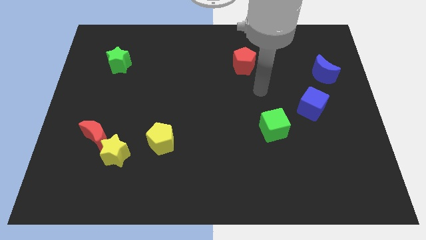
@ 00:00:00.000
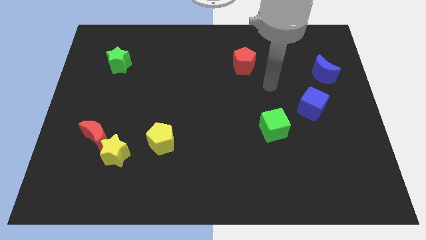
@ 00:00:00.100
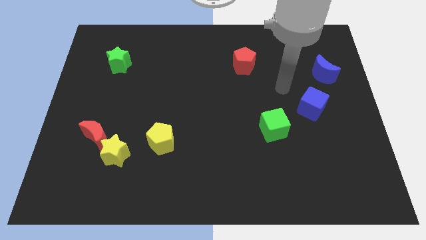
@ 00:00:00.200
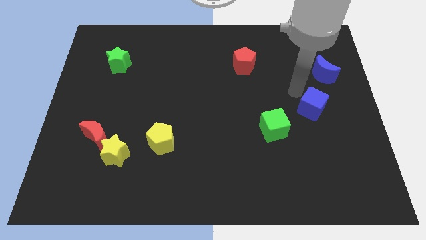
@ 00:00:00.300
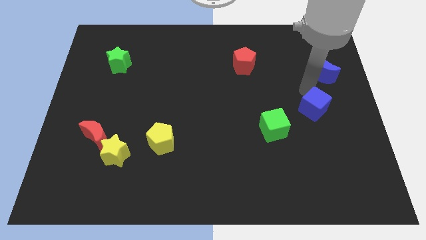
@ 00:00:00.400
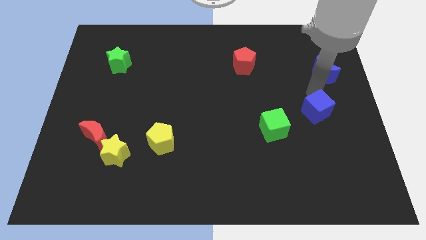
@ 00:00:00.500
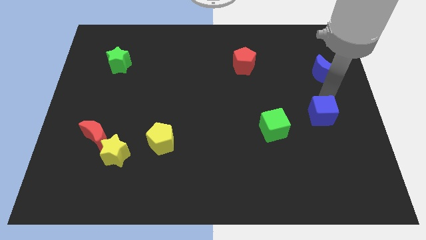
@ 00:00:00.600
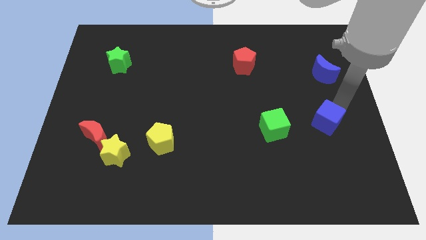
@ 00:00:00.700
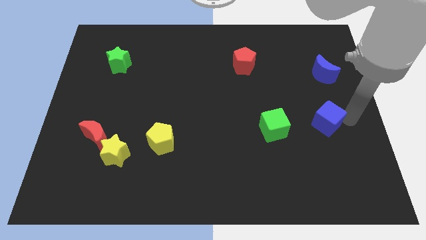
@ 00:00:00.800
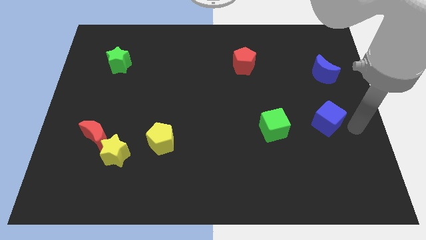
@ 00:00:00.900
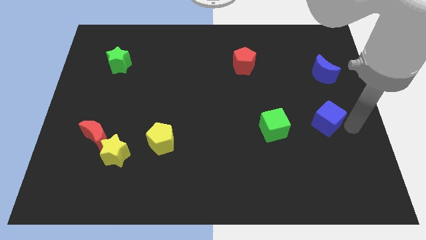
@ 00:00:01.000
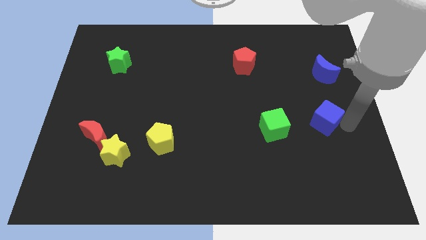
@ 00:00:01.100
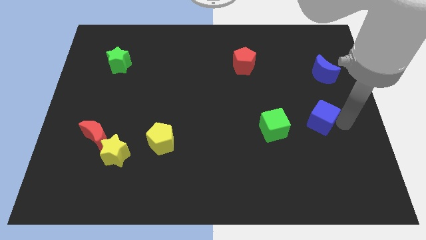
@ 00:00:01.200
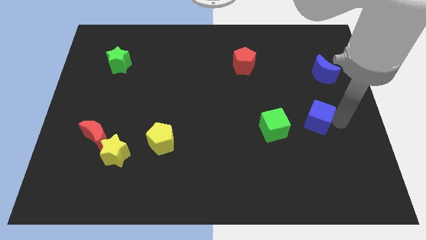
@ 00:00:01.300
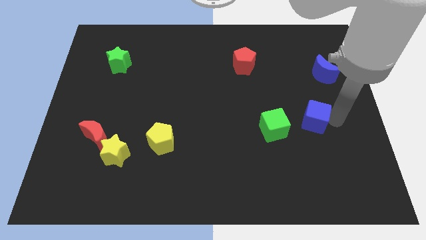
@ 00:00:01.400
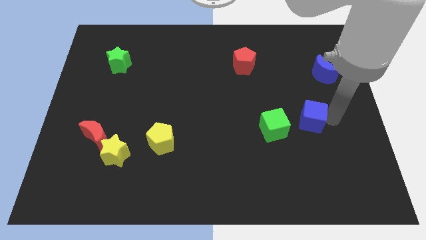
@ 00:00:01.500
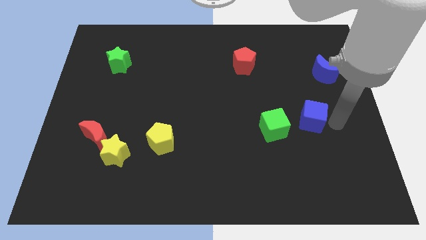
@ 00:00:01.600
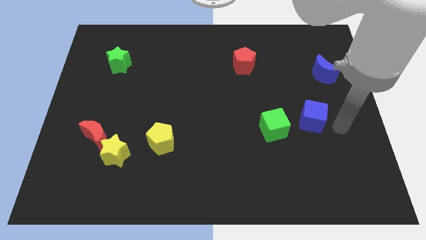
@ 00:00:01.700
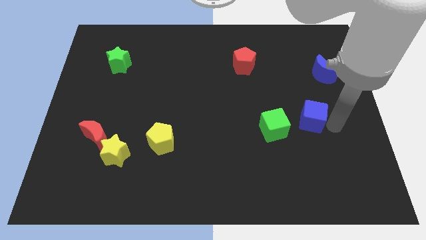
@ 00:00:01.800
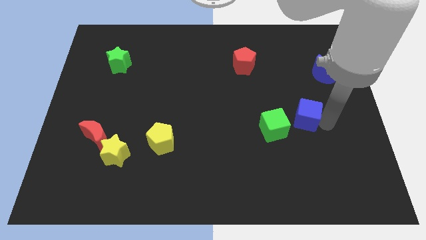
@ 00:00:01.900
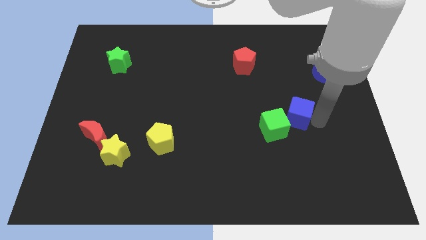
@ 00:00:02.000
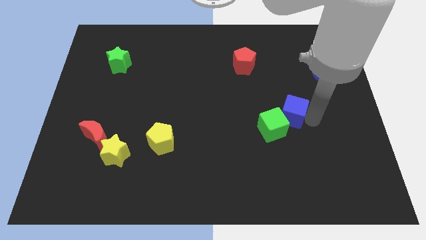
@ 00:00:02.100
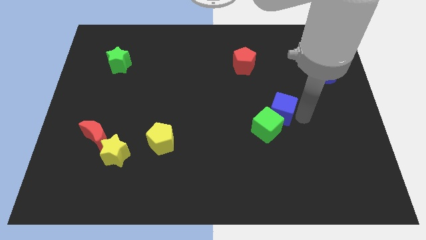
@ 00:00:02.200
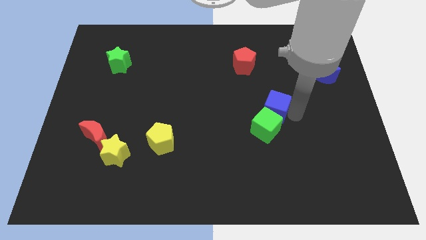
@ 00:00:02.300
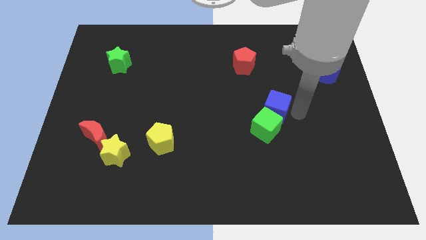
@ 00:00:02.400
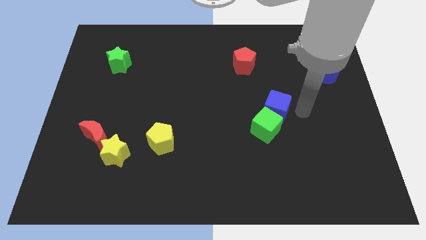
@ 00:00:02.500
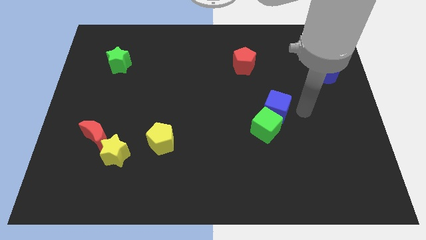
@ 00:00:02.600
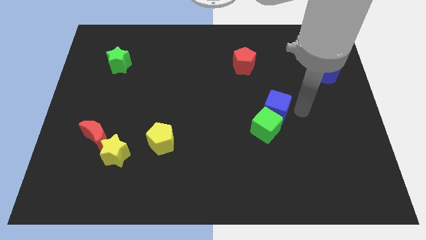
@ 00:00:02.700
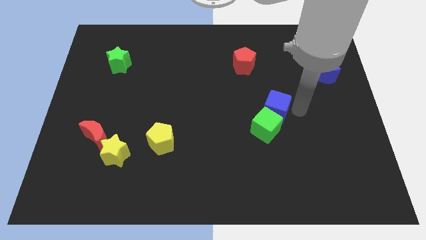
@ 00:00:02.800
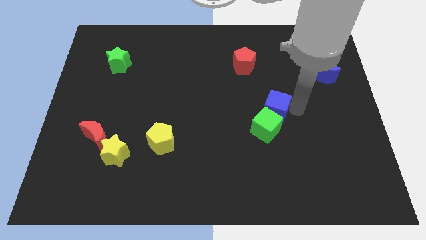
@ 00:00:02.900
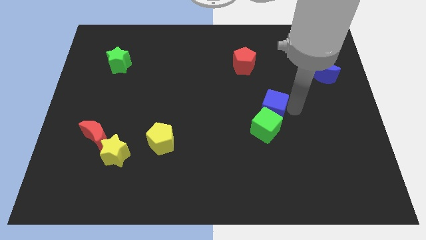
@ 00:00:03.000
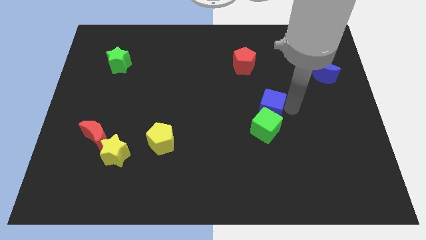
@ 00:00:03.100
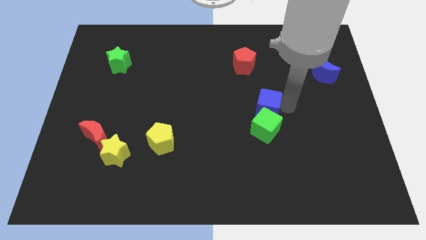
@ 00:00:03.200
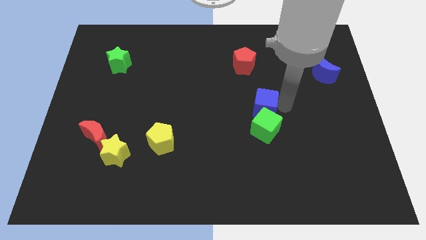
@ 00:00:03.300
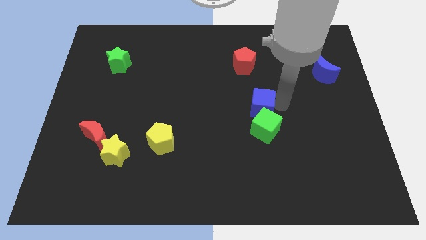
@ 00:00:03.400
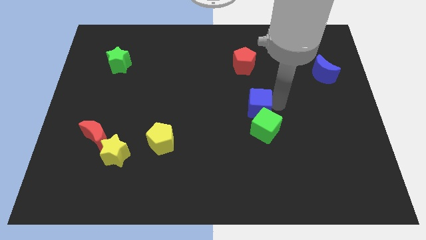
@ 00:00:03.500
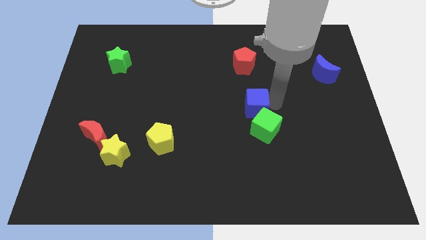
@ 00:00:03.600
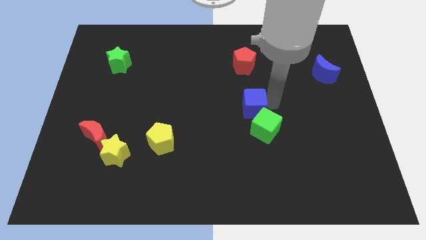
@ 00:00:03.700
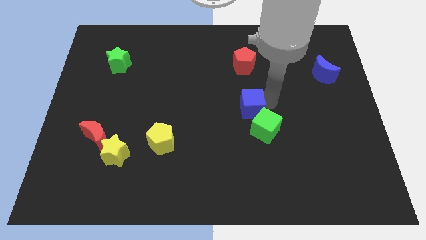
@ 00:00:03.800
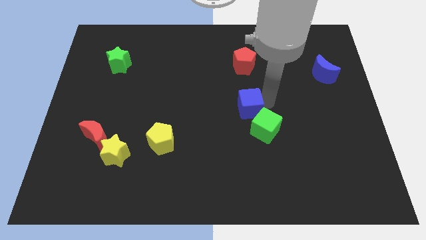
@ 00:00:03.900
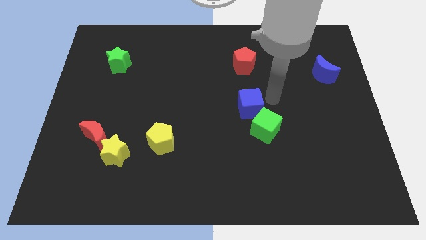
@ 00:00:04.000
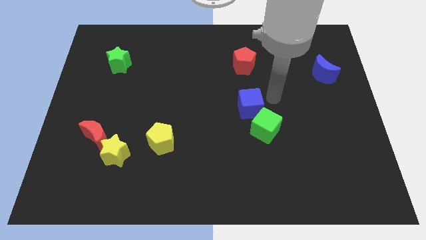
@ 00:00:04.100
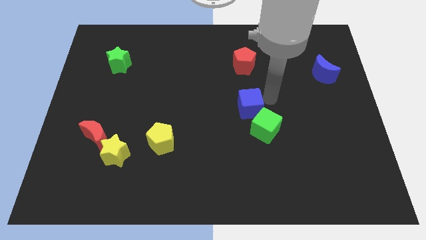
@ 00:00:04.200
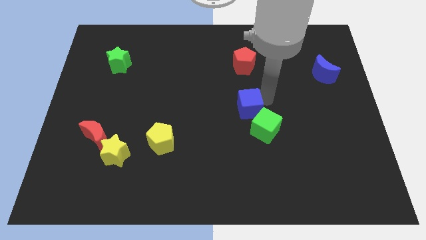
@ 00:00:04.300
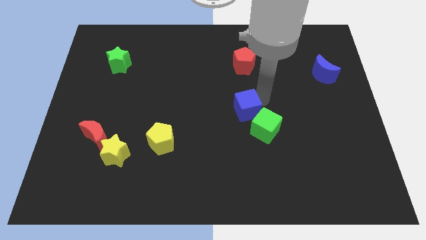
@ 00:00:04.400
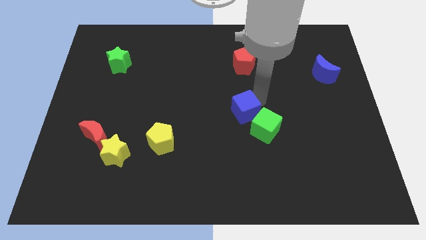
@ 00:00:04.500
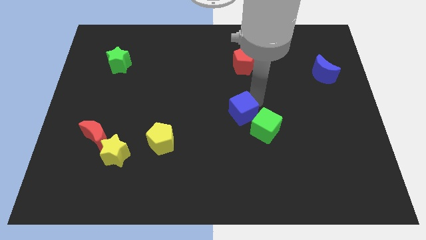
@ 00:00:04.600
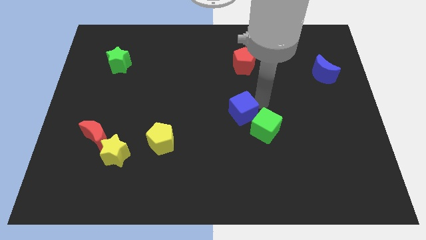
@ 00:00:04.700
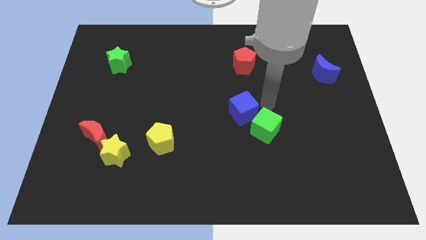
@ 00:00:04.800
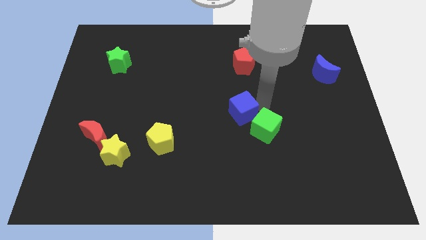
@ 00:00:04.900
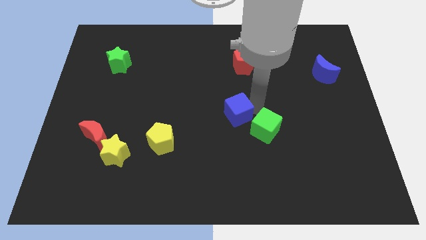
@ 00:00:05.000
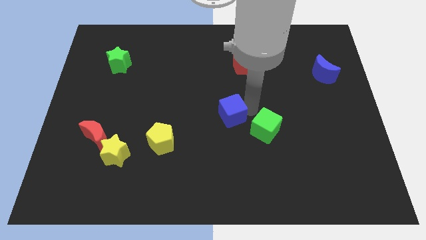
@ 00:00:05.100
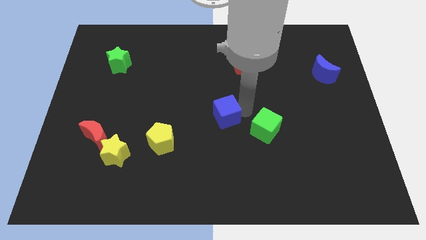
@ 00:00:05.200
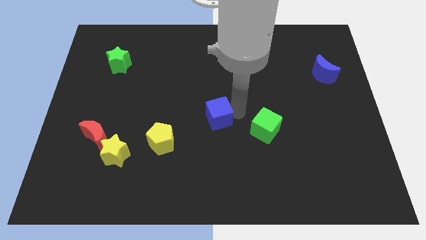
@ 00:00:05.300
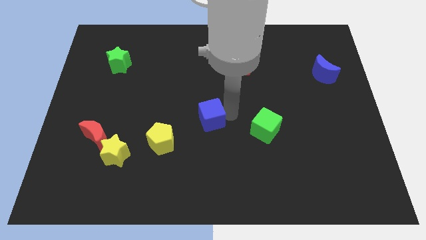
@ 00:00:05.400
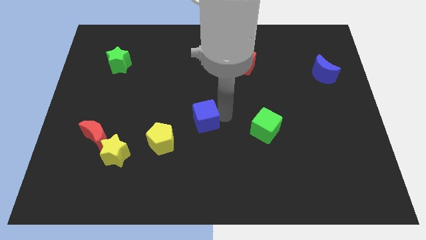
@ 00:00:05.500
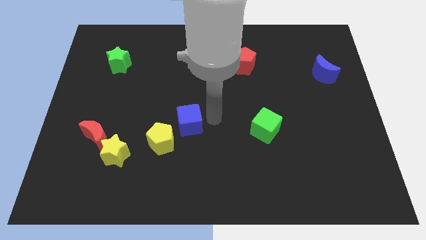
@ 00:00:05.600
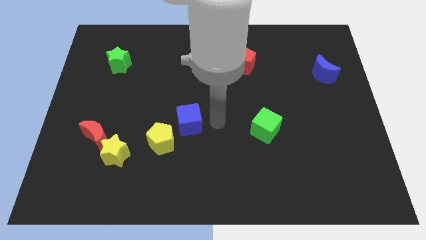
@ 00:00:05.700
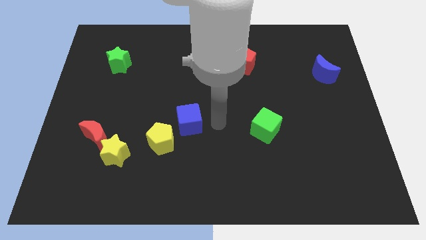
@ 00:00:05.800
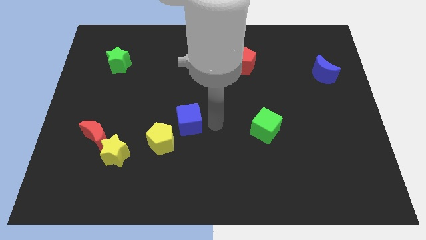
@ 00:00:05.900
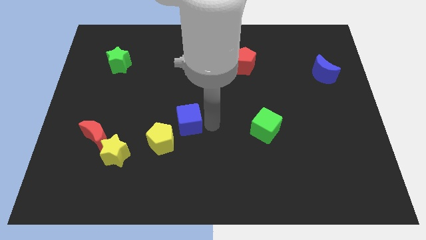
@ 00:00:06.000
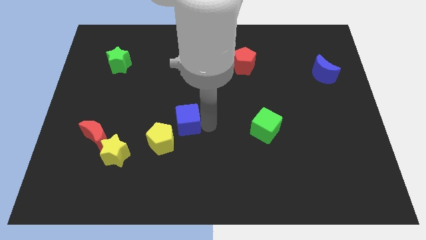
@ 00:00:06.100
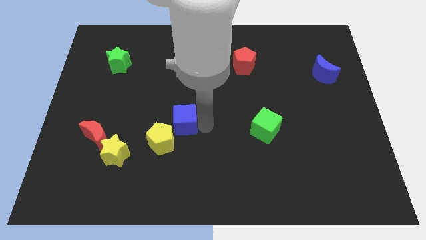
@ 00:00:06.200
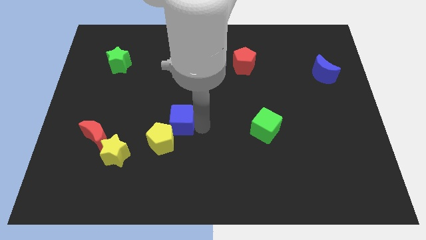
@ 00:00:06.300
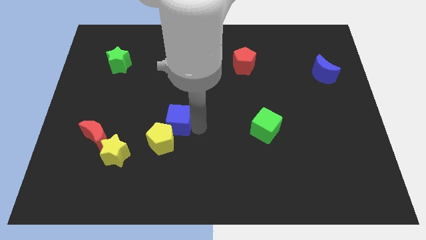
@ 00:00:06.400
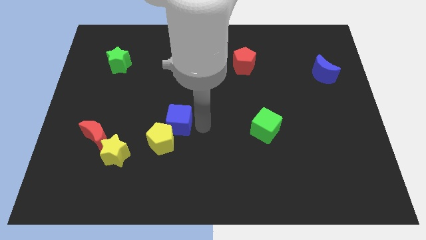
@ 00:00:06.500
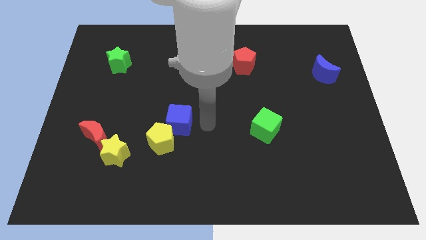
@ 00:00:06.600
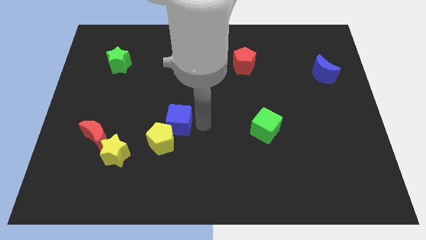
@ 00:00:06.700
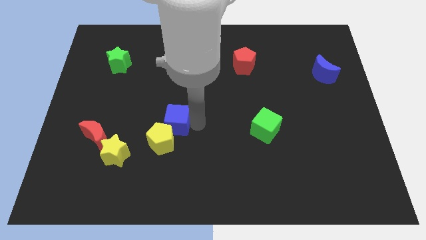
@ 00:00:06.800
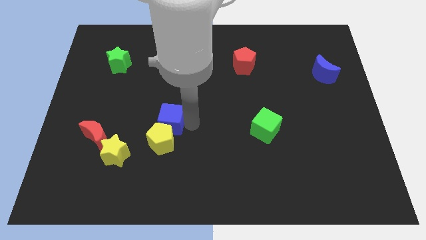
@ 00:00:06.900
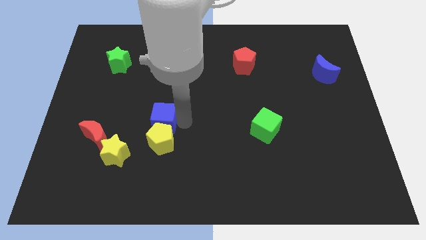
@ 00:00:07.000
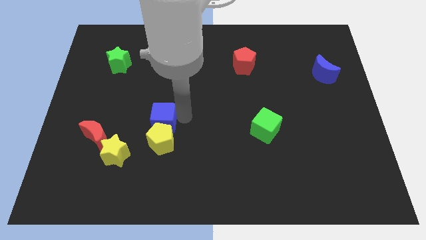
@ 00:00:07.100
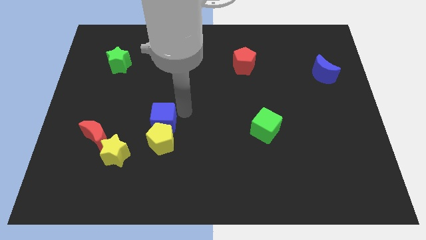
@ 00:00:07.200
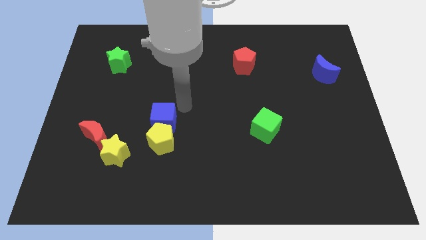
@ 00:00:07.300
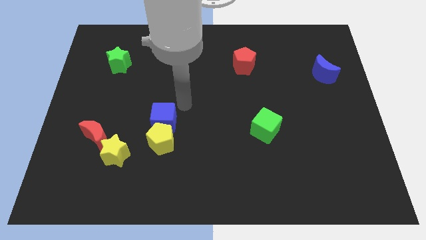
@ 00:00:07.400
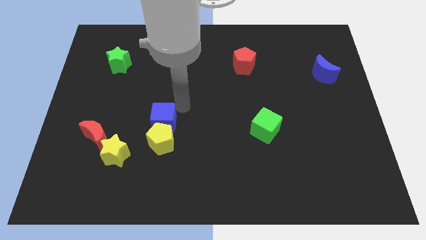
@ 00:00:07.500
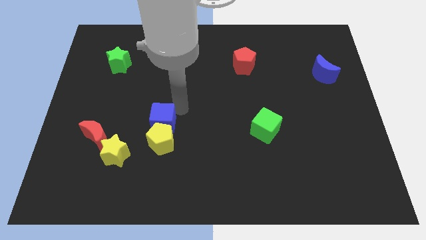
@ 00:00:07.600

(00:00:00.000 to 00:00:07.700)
slide the blue cube to the right side of the red moon
